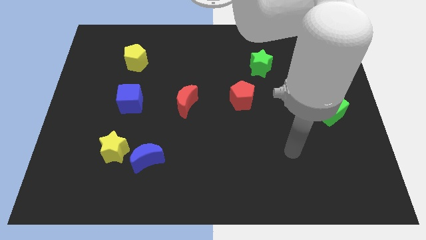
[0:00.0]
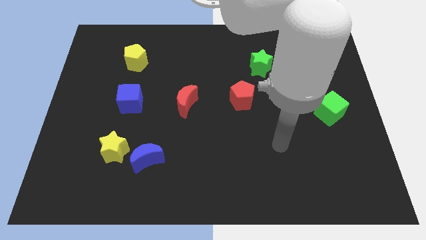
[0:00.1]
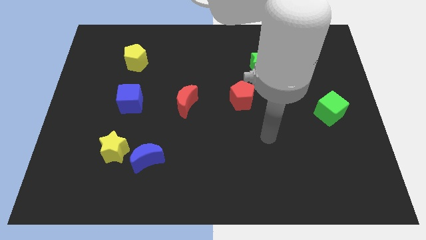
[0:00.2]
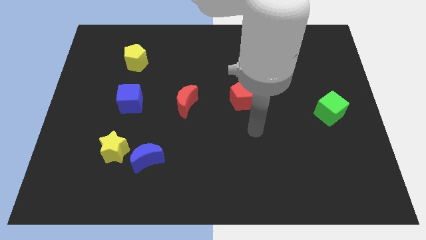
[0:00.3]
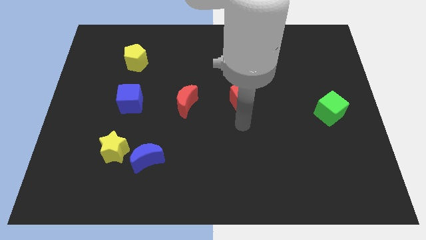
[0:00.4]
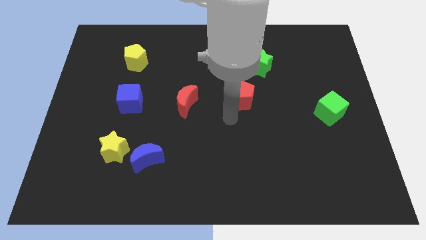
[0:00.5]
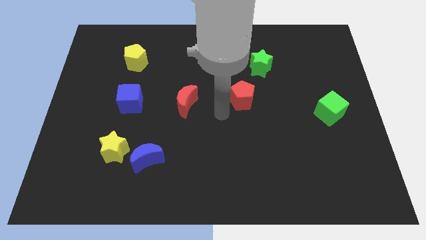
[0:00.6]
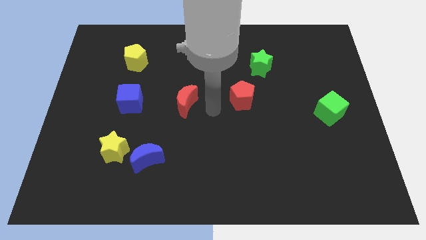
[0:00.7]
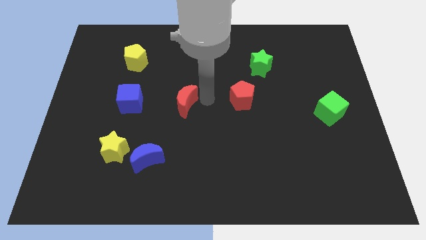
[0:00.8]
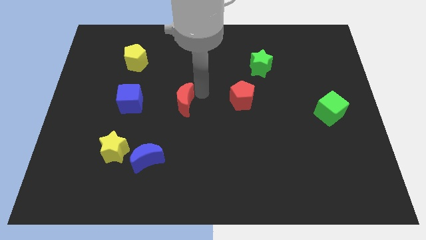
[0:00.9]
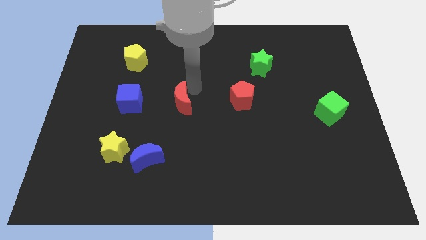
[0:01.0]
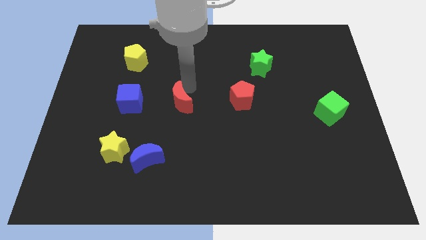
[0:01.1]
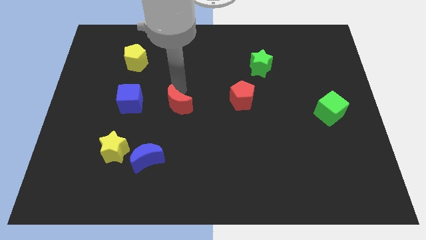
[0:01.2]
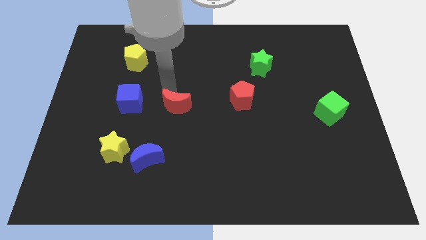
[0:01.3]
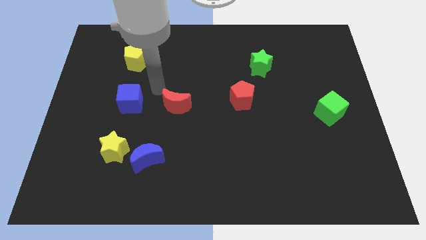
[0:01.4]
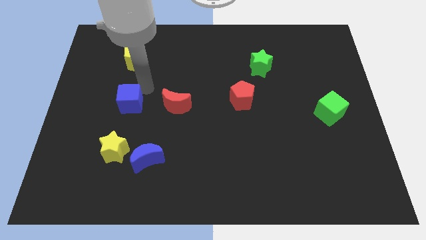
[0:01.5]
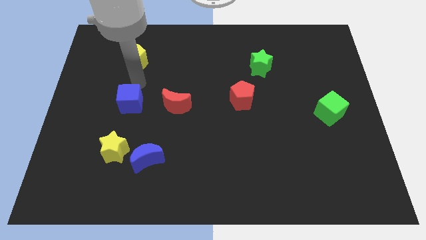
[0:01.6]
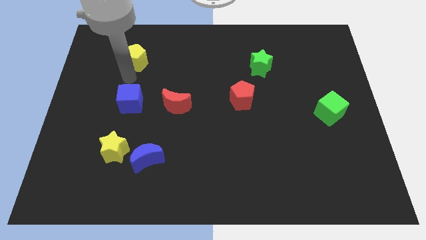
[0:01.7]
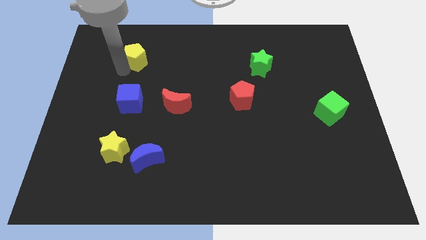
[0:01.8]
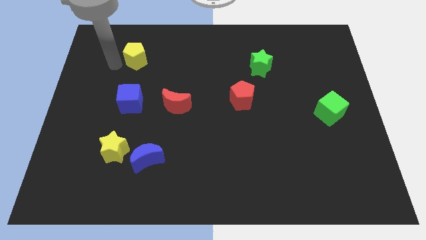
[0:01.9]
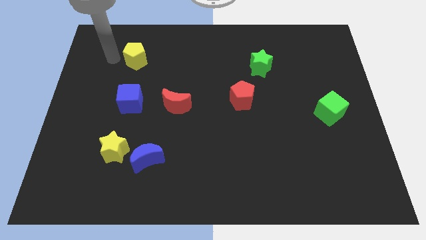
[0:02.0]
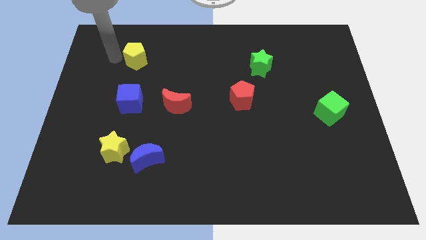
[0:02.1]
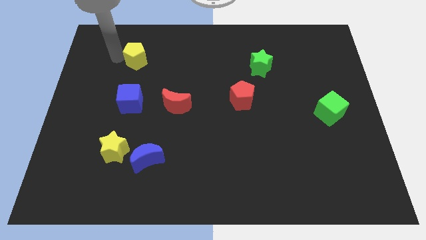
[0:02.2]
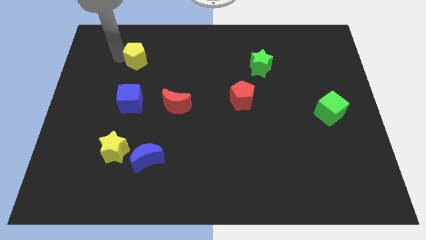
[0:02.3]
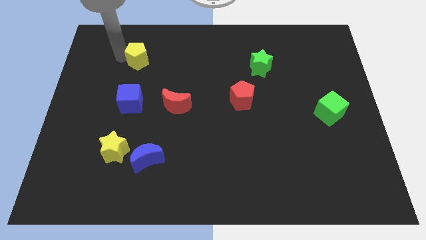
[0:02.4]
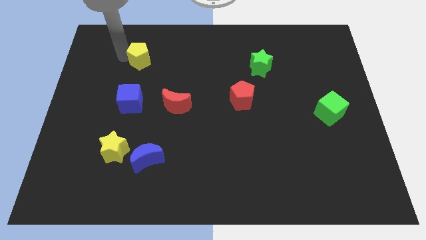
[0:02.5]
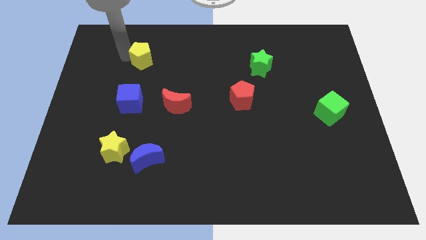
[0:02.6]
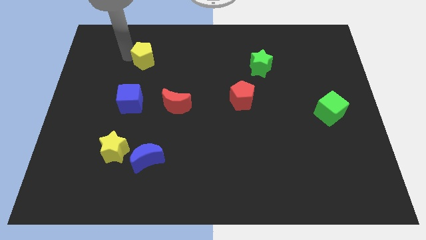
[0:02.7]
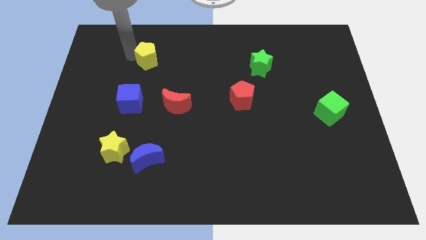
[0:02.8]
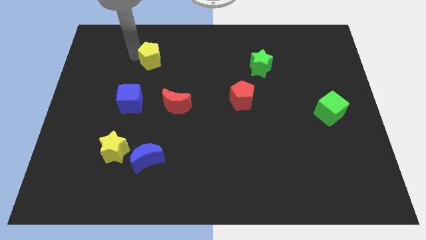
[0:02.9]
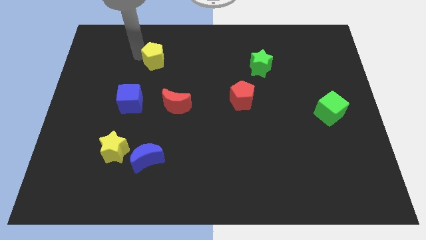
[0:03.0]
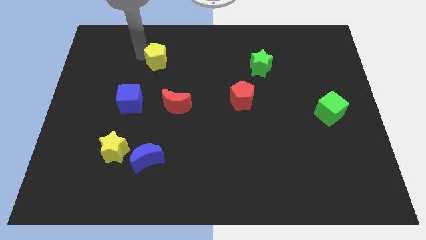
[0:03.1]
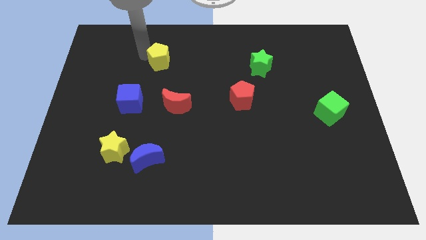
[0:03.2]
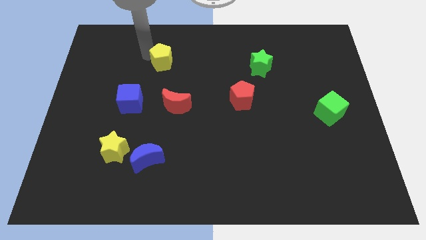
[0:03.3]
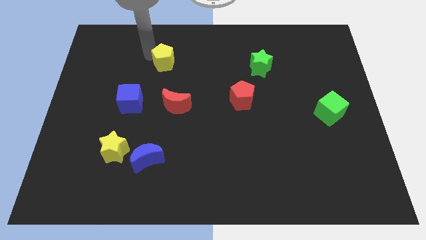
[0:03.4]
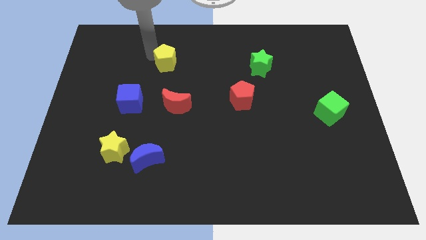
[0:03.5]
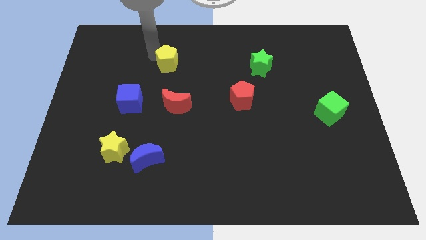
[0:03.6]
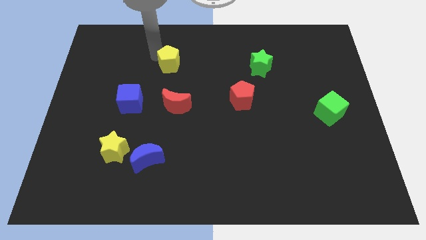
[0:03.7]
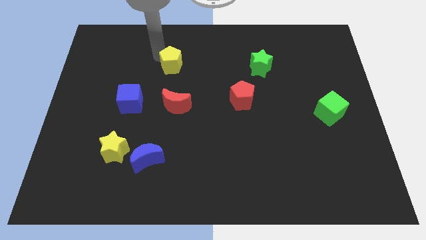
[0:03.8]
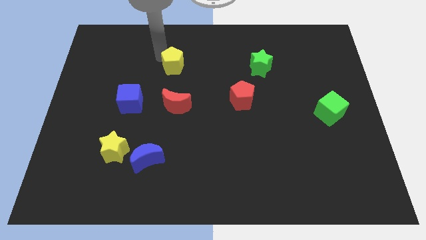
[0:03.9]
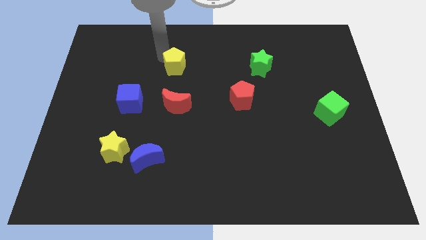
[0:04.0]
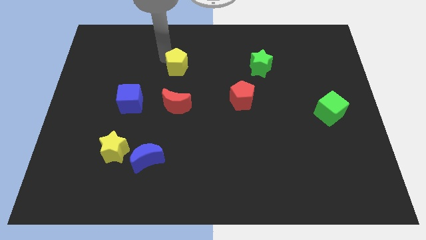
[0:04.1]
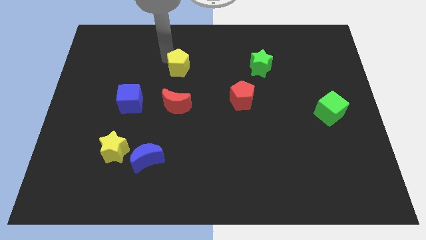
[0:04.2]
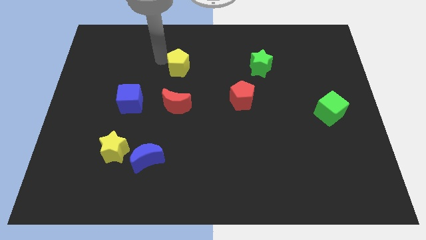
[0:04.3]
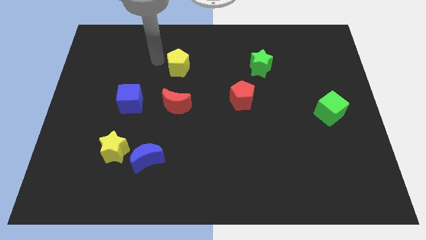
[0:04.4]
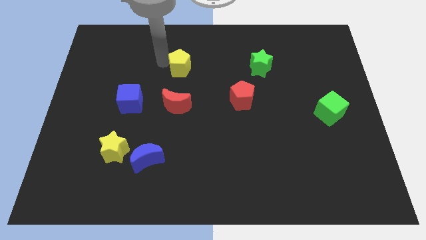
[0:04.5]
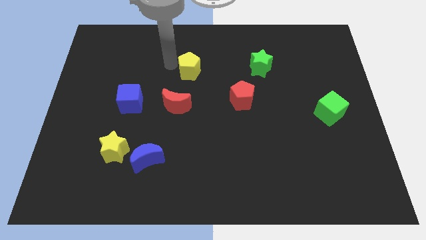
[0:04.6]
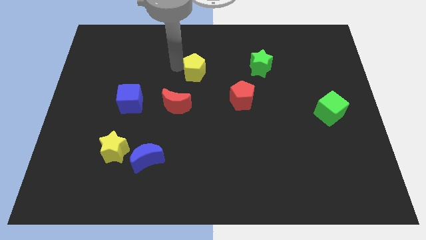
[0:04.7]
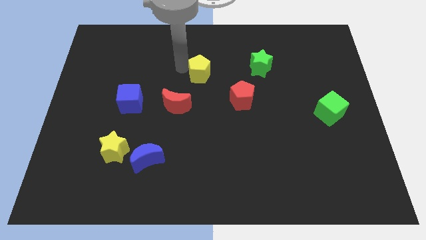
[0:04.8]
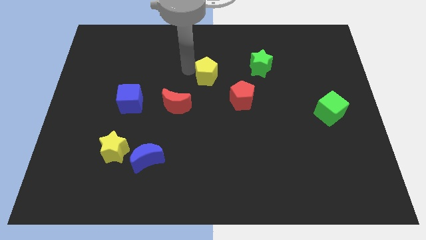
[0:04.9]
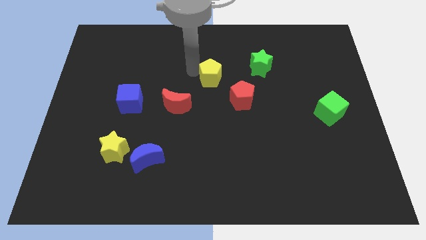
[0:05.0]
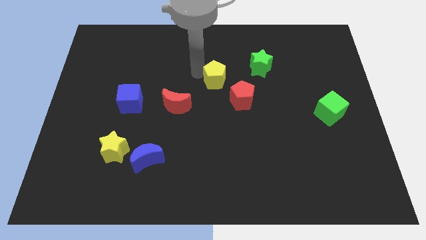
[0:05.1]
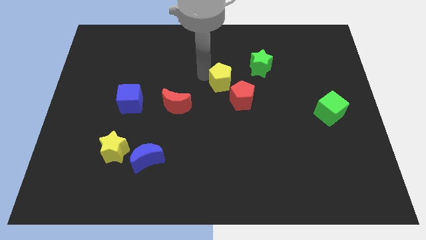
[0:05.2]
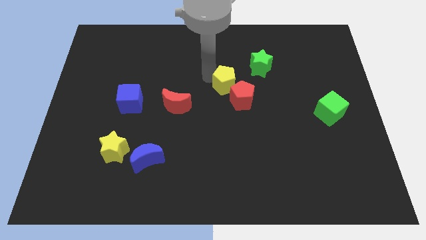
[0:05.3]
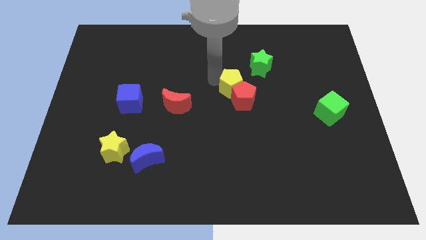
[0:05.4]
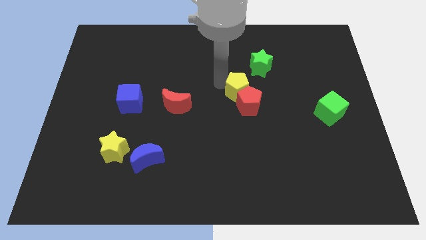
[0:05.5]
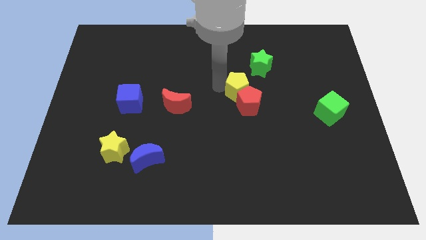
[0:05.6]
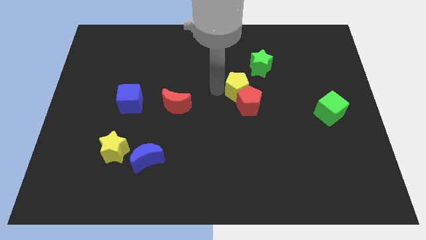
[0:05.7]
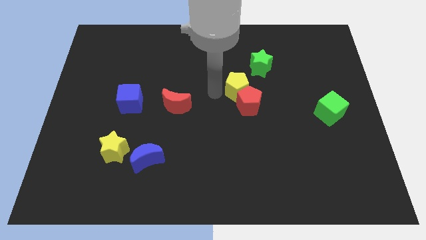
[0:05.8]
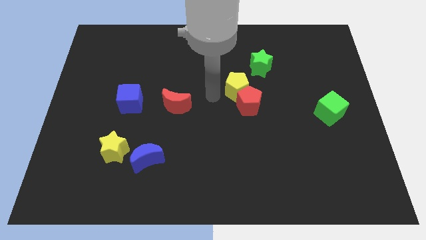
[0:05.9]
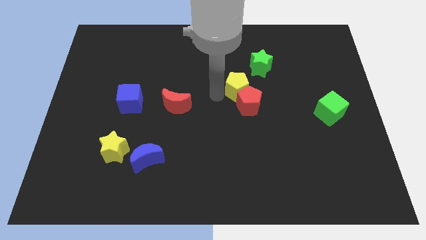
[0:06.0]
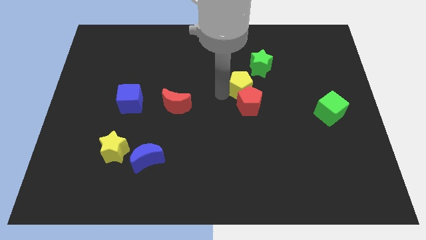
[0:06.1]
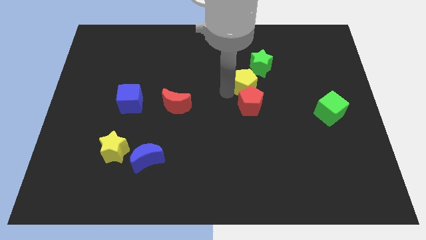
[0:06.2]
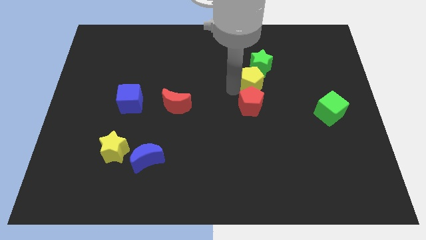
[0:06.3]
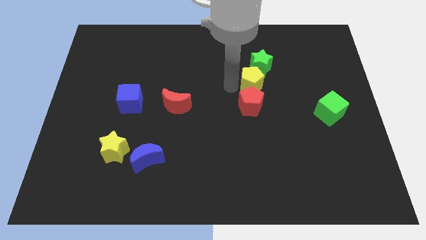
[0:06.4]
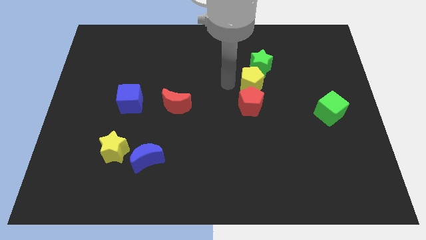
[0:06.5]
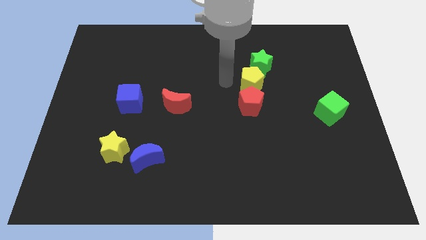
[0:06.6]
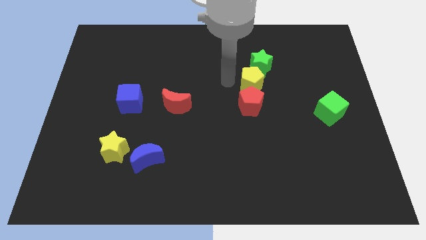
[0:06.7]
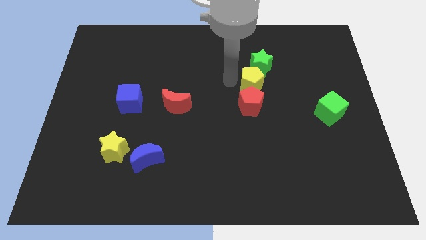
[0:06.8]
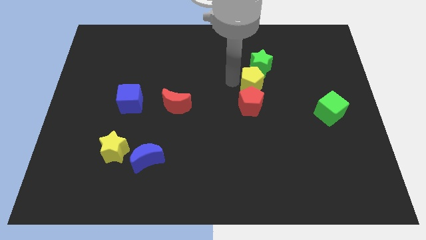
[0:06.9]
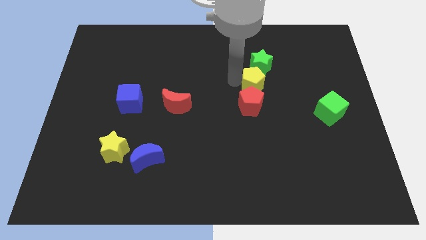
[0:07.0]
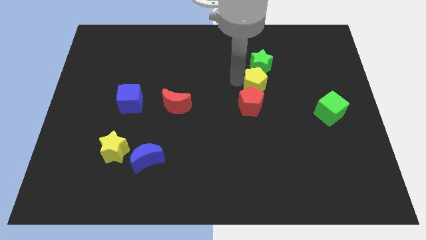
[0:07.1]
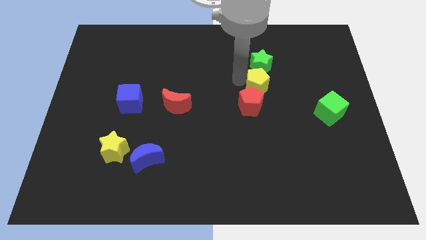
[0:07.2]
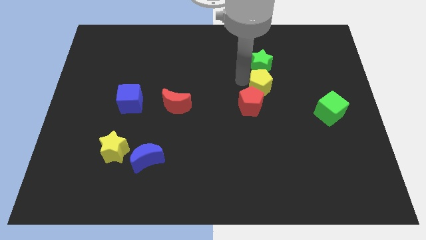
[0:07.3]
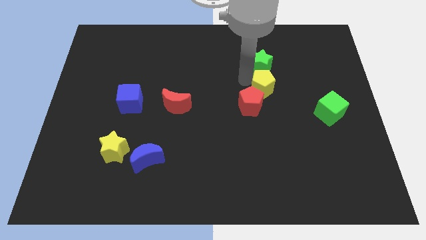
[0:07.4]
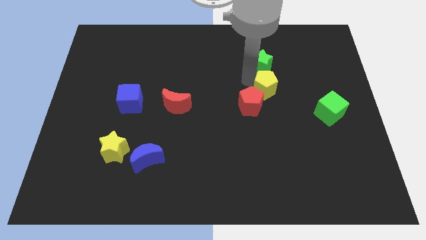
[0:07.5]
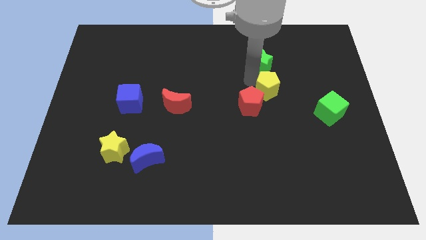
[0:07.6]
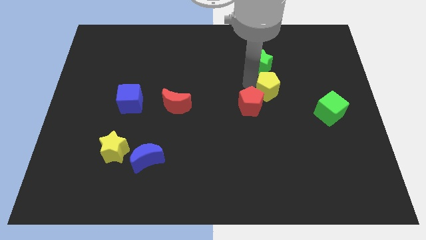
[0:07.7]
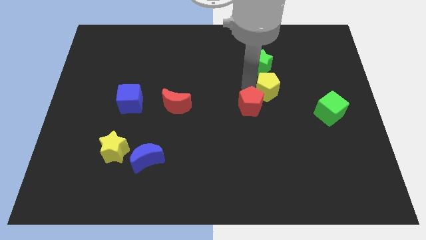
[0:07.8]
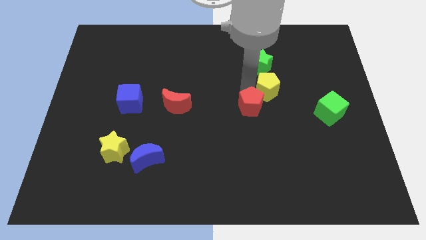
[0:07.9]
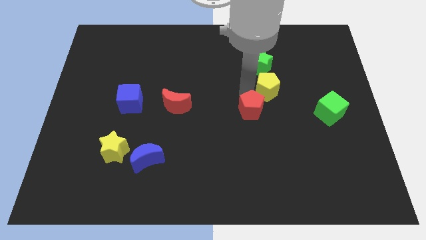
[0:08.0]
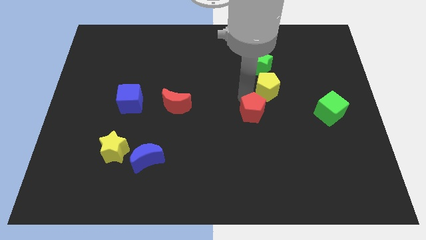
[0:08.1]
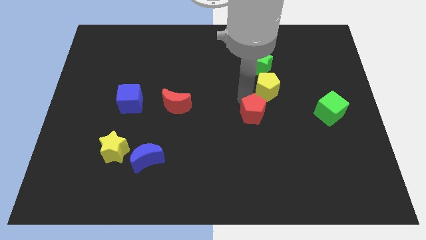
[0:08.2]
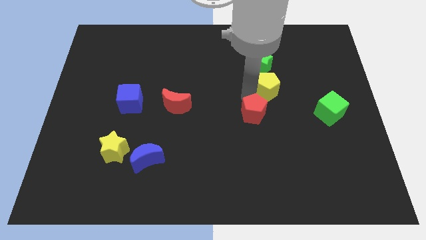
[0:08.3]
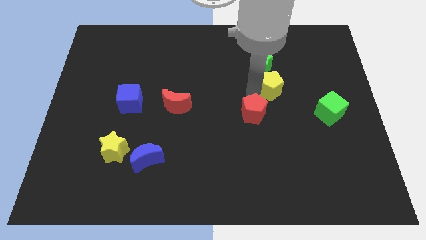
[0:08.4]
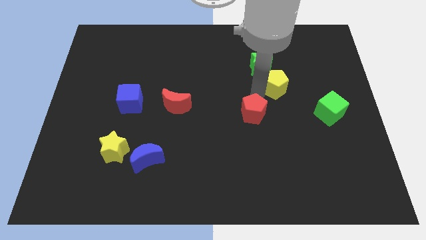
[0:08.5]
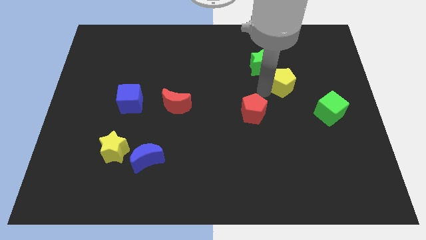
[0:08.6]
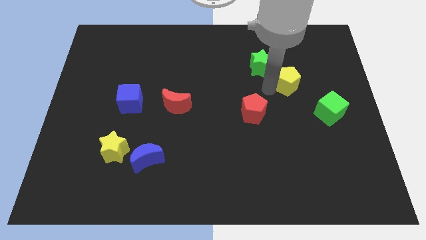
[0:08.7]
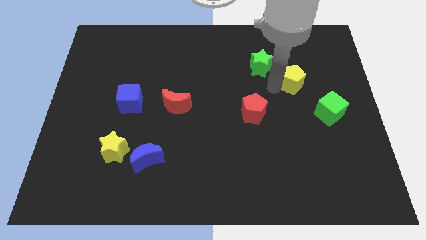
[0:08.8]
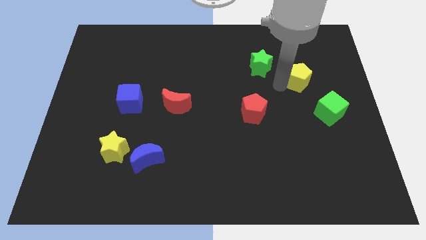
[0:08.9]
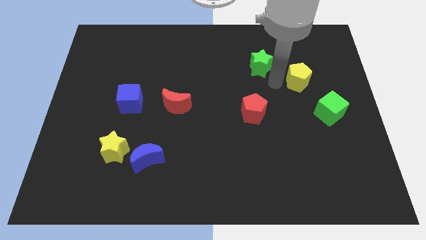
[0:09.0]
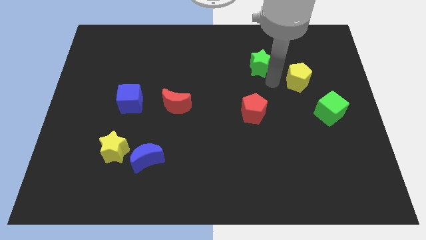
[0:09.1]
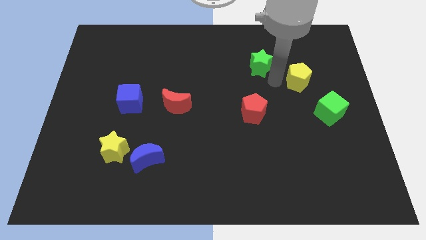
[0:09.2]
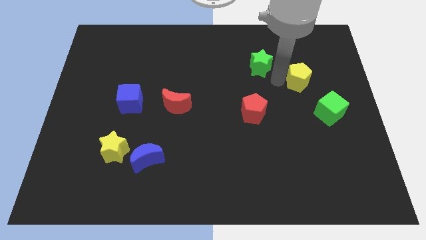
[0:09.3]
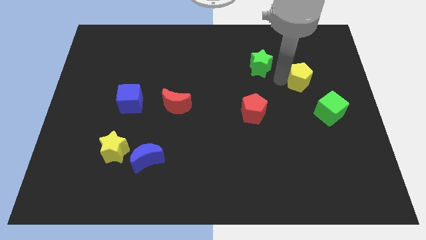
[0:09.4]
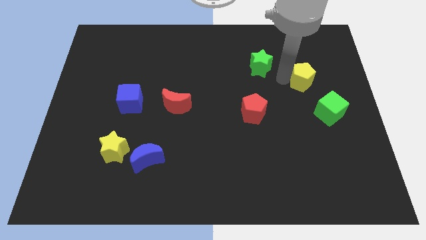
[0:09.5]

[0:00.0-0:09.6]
put the yellow pentagon to the top side of the green cube
